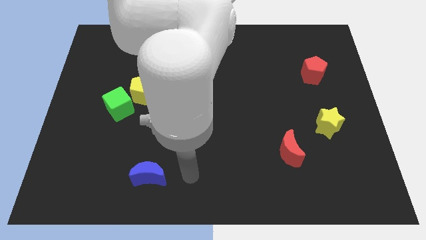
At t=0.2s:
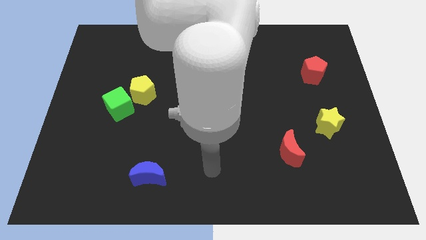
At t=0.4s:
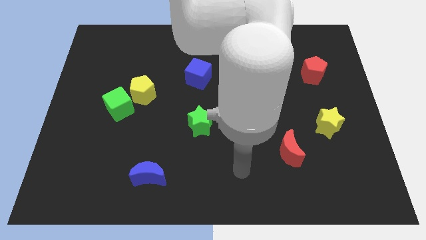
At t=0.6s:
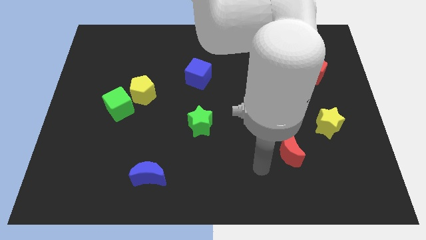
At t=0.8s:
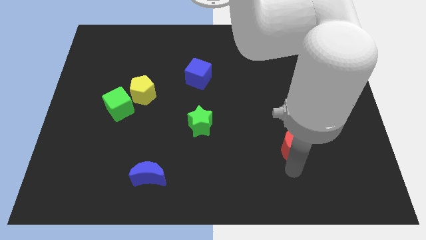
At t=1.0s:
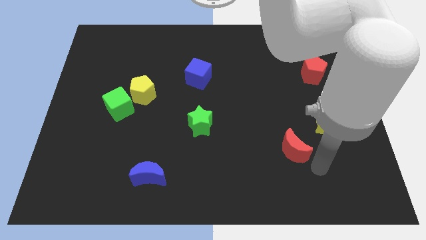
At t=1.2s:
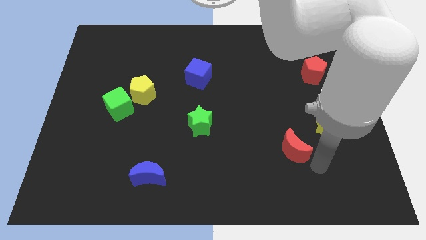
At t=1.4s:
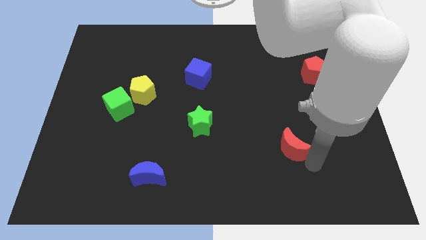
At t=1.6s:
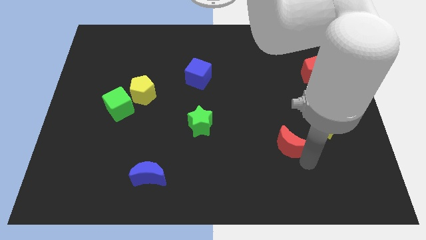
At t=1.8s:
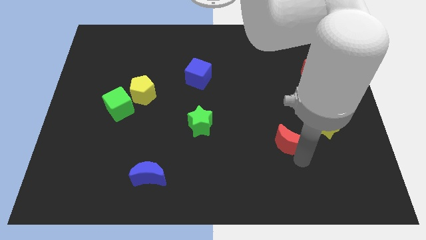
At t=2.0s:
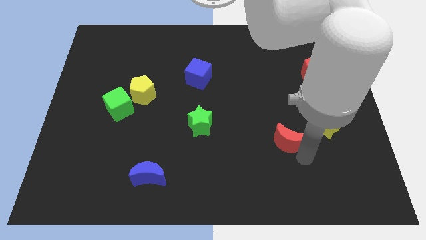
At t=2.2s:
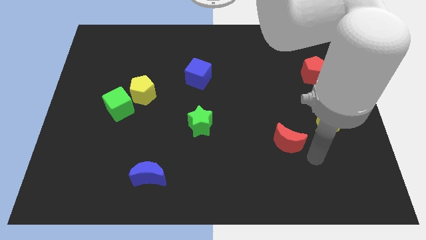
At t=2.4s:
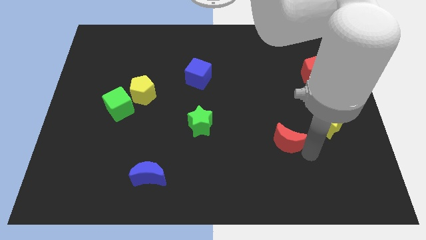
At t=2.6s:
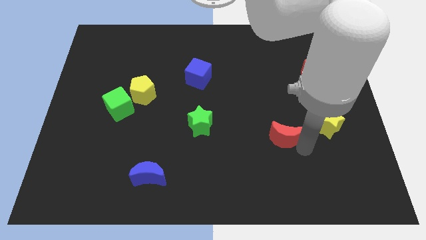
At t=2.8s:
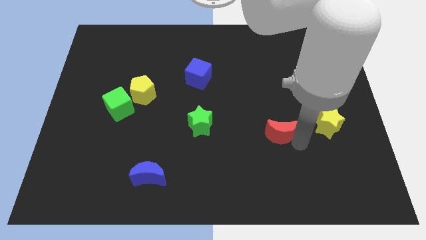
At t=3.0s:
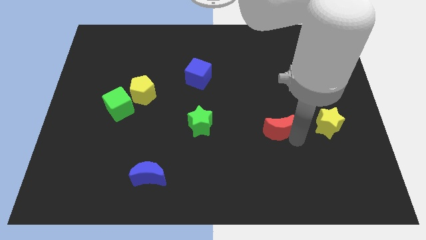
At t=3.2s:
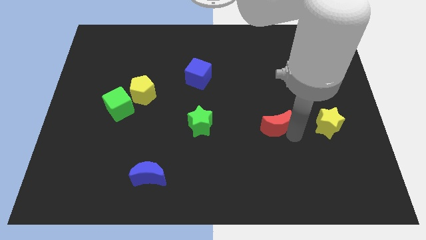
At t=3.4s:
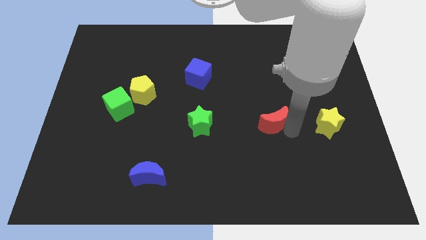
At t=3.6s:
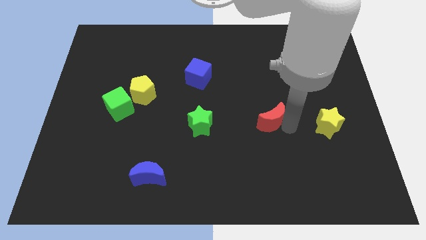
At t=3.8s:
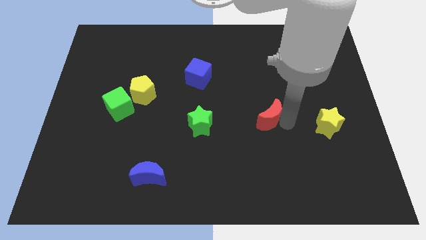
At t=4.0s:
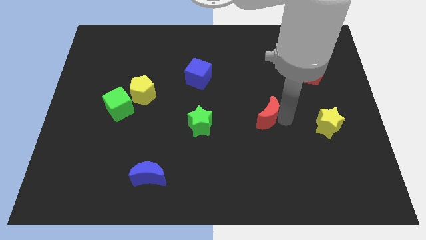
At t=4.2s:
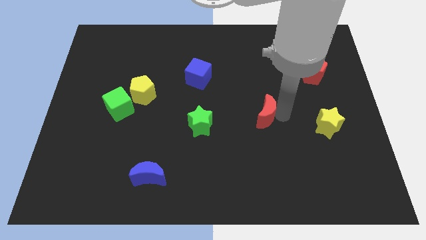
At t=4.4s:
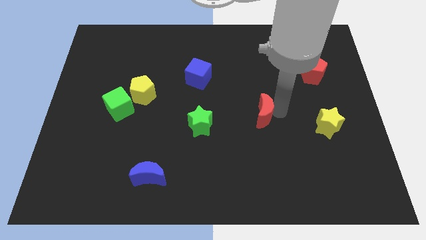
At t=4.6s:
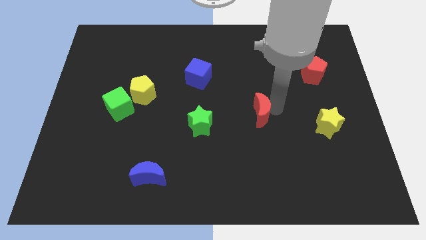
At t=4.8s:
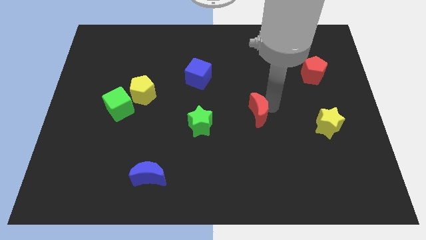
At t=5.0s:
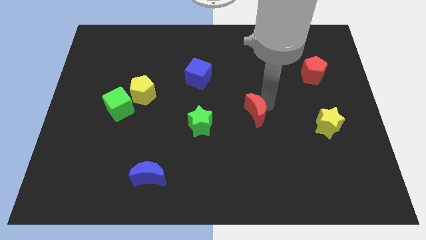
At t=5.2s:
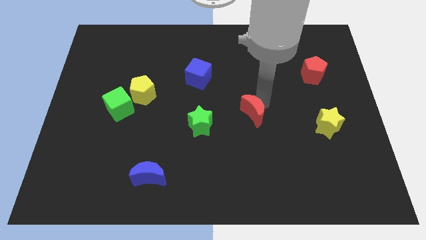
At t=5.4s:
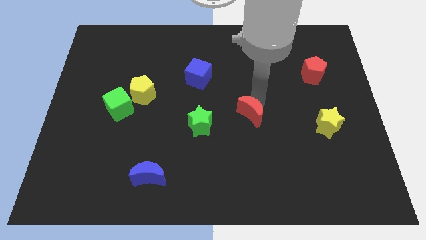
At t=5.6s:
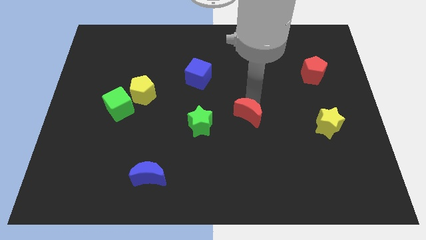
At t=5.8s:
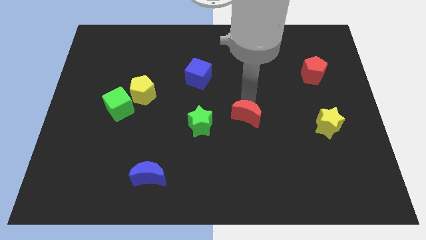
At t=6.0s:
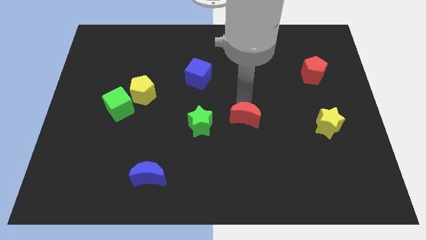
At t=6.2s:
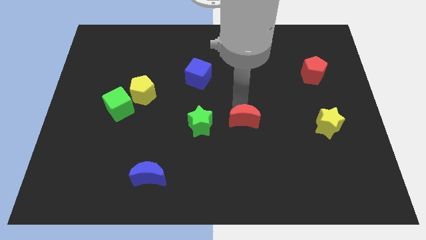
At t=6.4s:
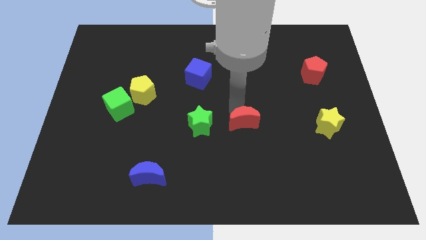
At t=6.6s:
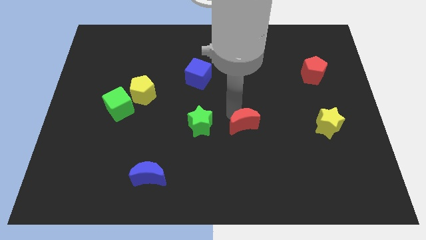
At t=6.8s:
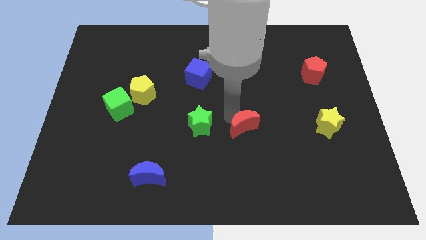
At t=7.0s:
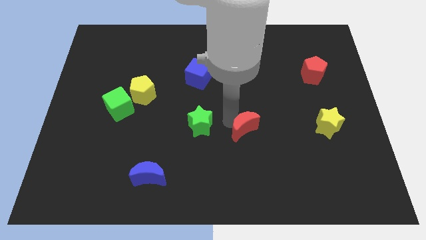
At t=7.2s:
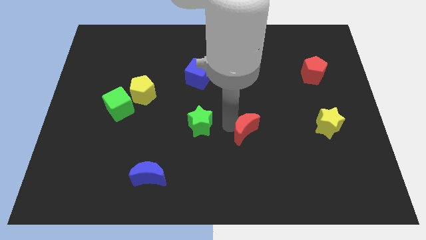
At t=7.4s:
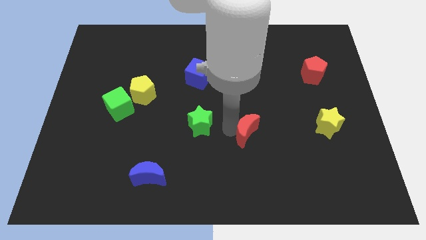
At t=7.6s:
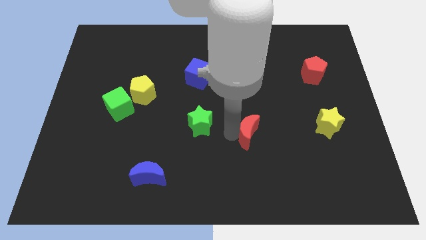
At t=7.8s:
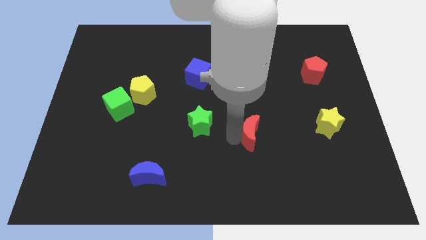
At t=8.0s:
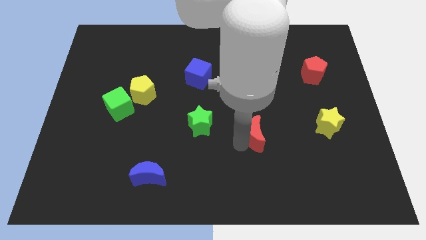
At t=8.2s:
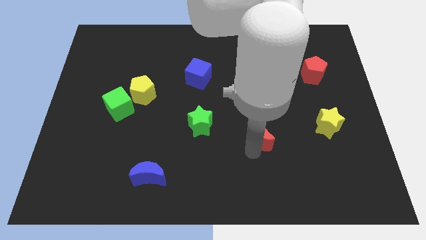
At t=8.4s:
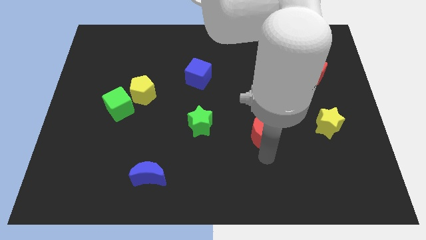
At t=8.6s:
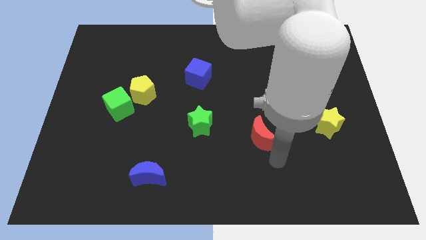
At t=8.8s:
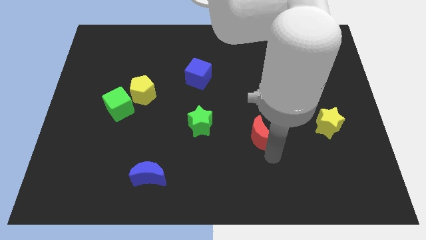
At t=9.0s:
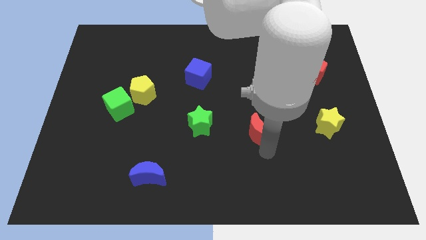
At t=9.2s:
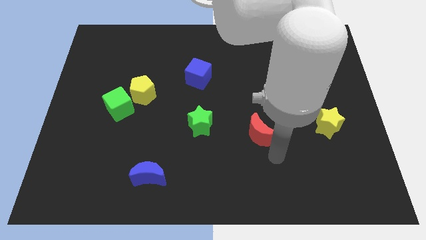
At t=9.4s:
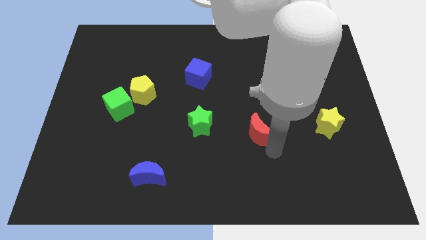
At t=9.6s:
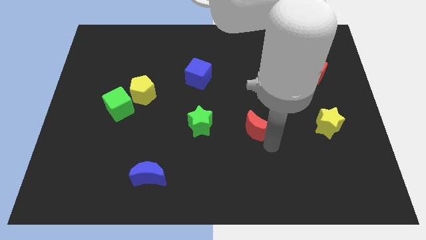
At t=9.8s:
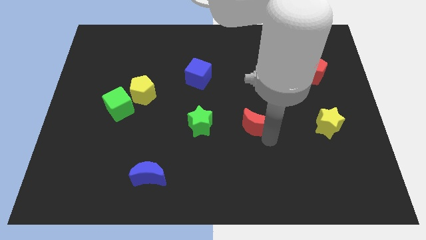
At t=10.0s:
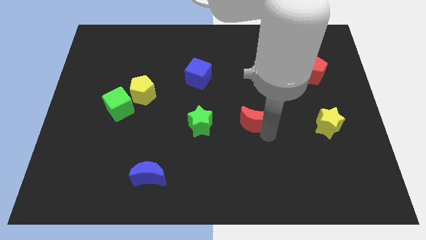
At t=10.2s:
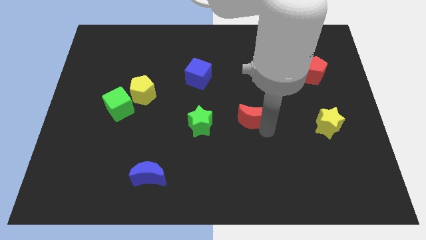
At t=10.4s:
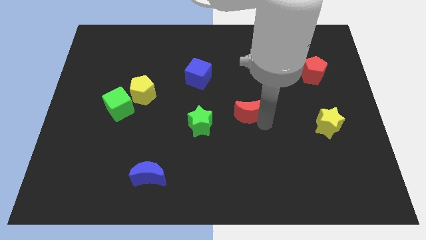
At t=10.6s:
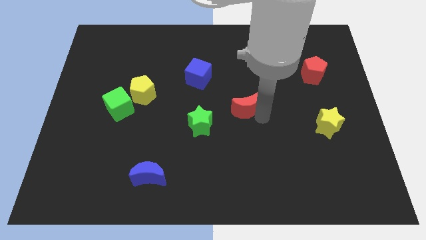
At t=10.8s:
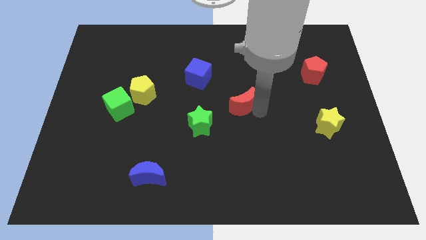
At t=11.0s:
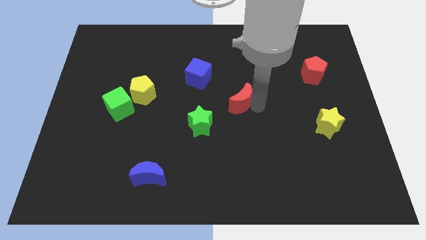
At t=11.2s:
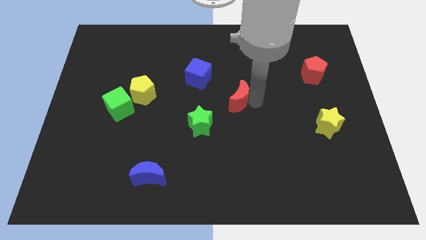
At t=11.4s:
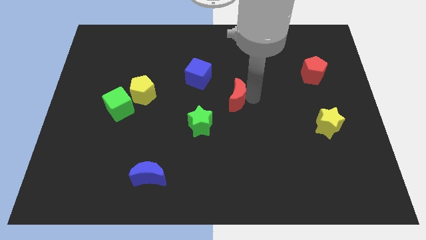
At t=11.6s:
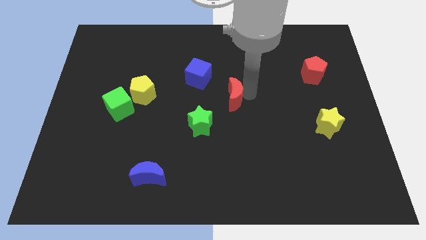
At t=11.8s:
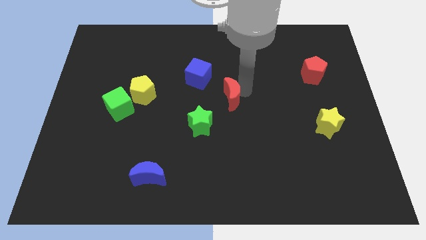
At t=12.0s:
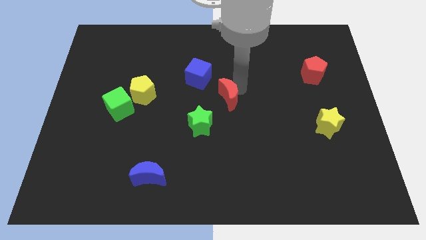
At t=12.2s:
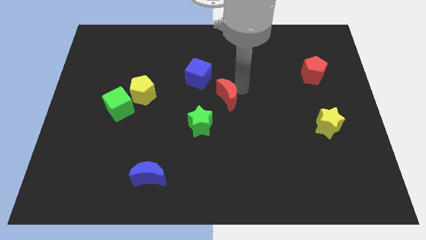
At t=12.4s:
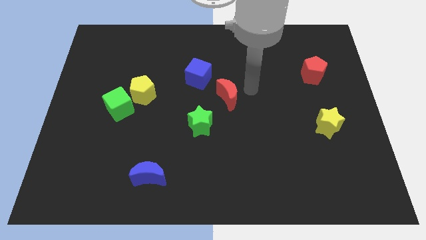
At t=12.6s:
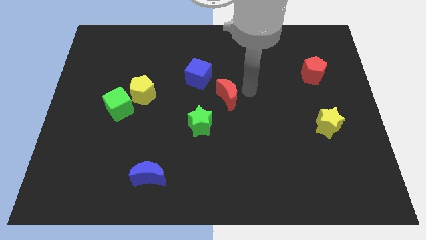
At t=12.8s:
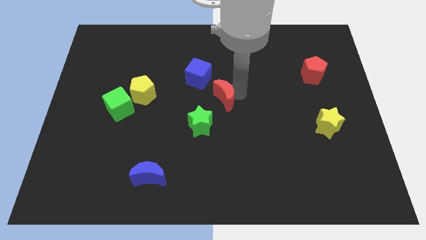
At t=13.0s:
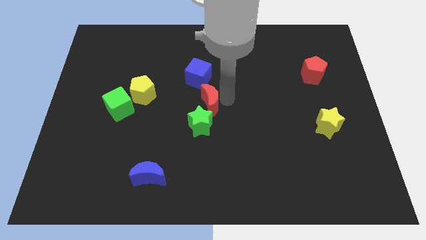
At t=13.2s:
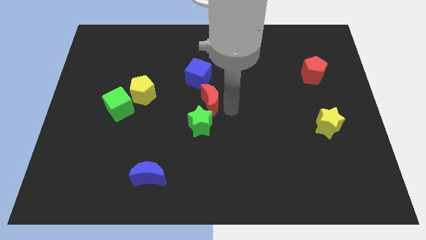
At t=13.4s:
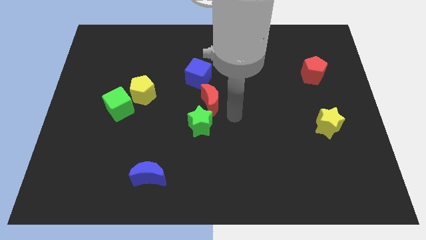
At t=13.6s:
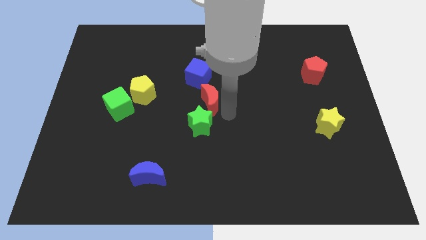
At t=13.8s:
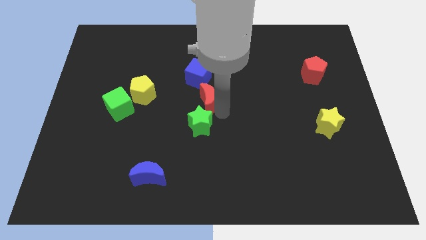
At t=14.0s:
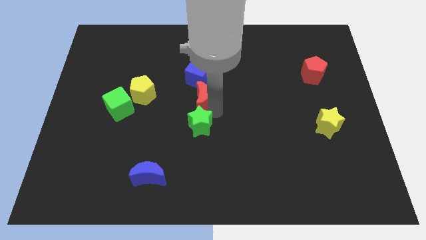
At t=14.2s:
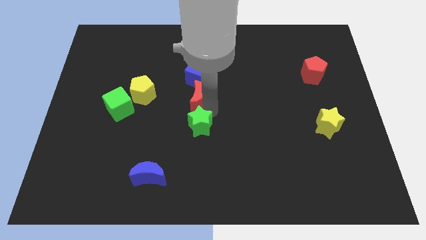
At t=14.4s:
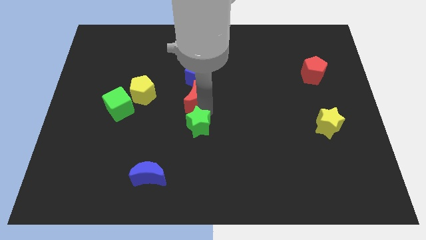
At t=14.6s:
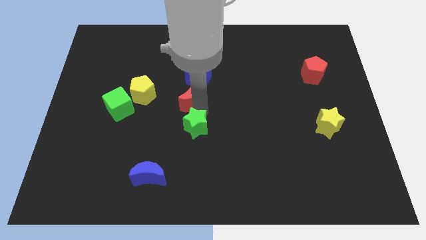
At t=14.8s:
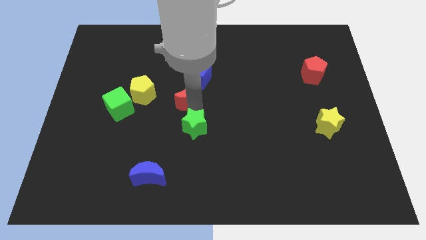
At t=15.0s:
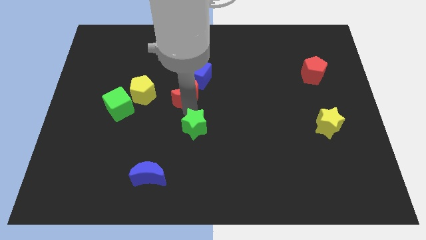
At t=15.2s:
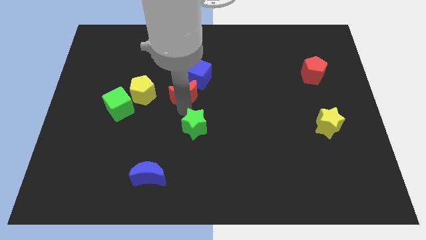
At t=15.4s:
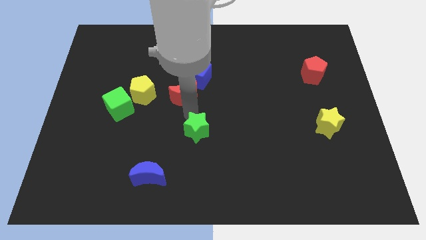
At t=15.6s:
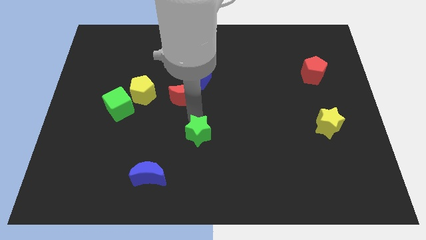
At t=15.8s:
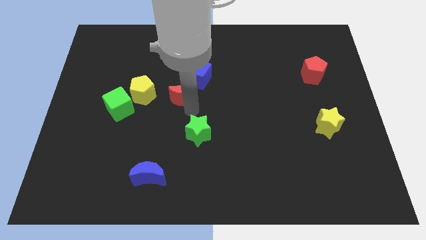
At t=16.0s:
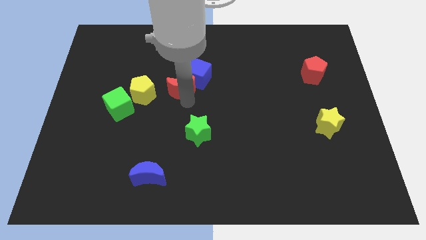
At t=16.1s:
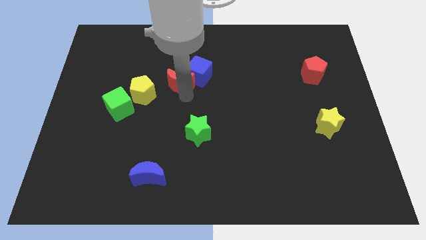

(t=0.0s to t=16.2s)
slide the red moon to the top right side of the yellow pentagon
